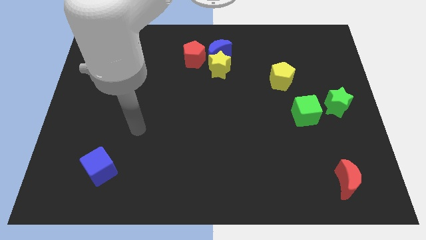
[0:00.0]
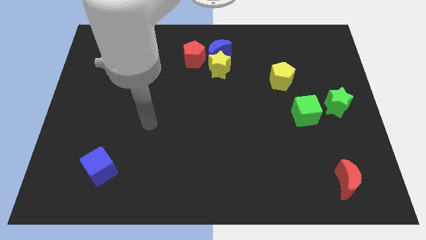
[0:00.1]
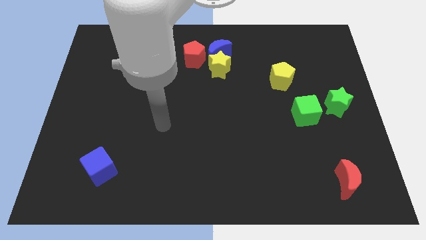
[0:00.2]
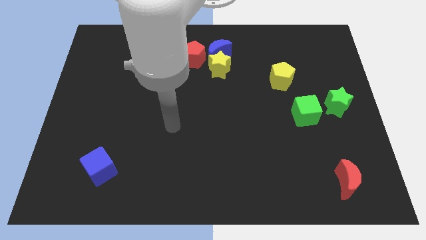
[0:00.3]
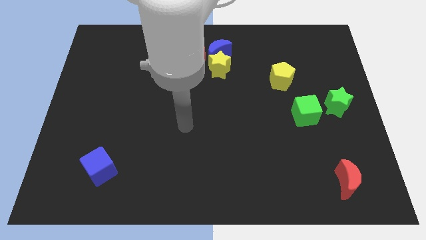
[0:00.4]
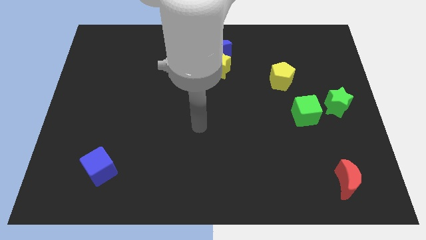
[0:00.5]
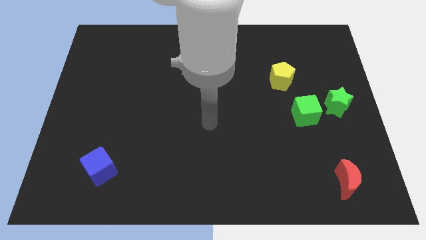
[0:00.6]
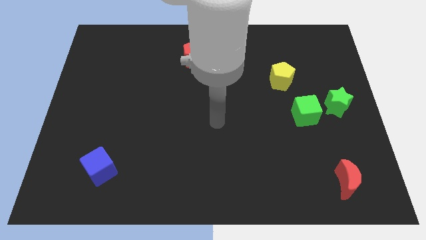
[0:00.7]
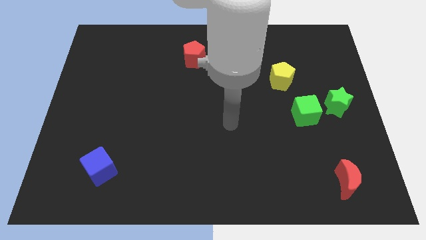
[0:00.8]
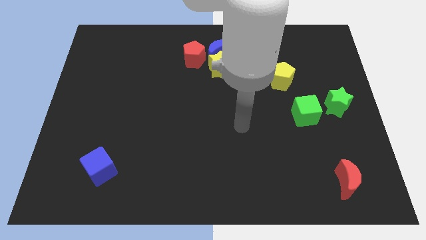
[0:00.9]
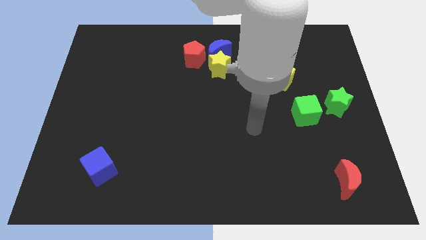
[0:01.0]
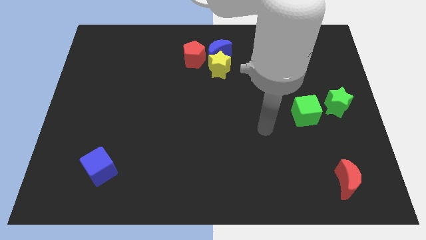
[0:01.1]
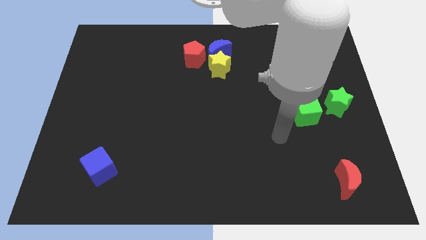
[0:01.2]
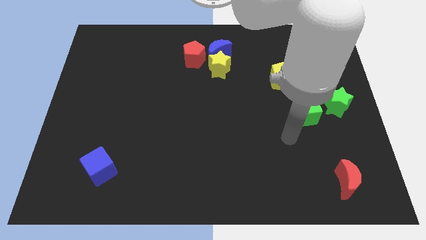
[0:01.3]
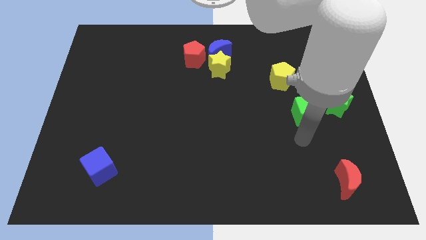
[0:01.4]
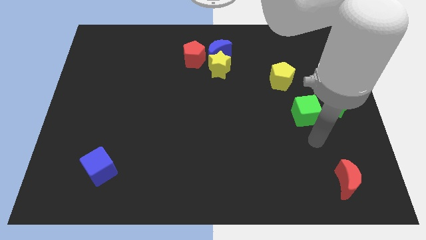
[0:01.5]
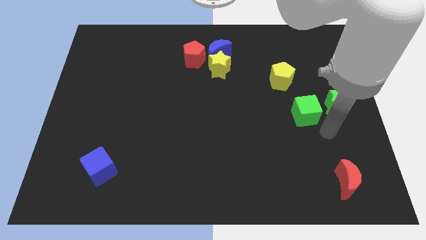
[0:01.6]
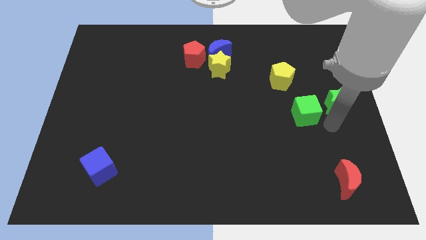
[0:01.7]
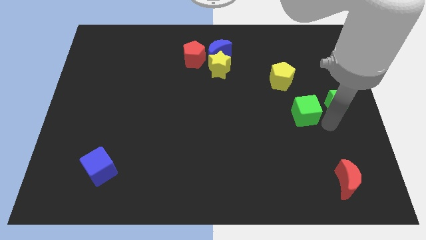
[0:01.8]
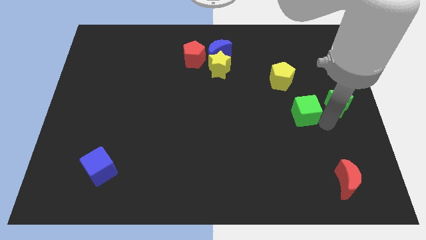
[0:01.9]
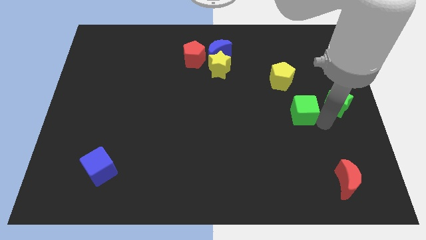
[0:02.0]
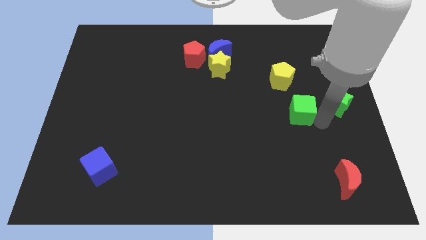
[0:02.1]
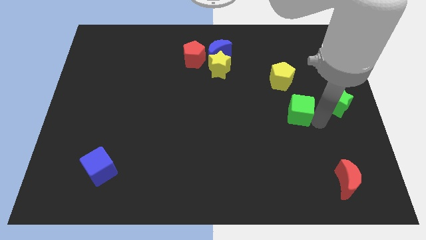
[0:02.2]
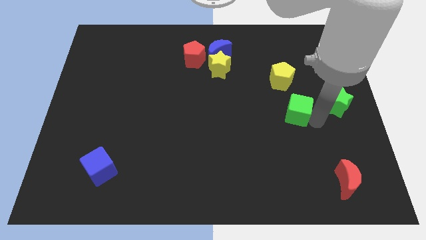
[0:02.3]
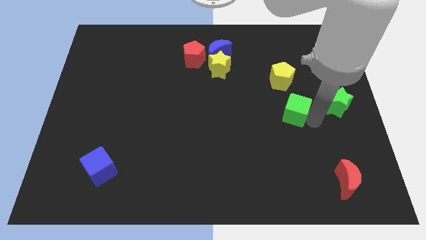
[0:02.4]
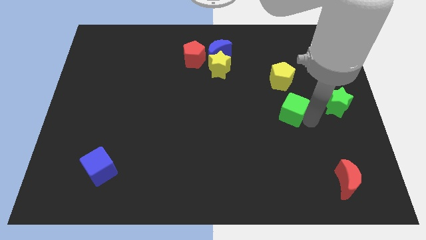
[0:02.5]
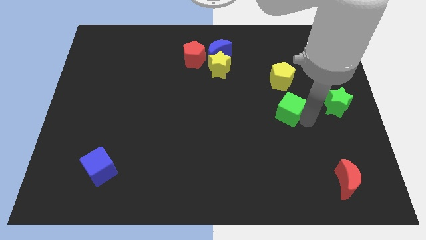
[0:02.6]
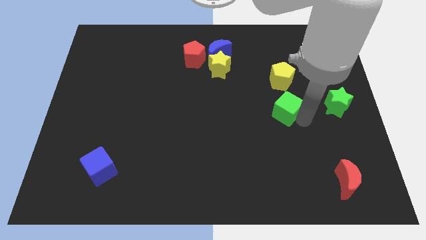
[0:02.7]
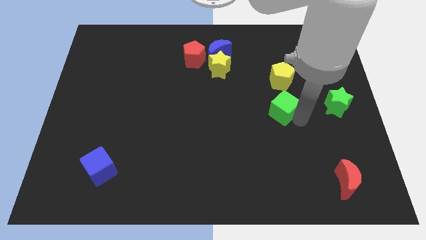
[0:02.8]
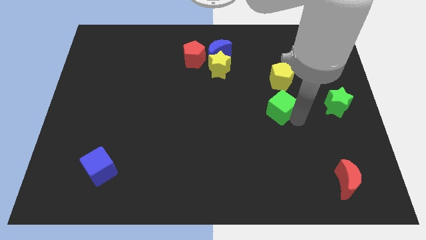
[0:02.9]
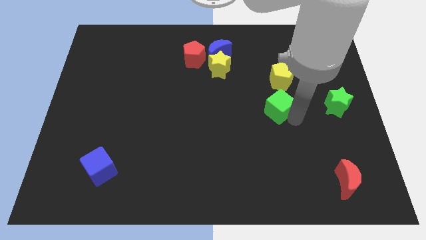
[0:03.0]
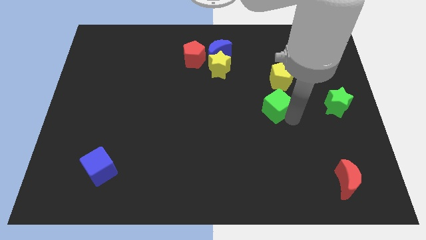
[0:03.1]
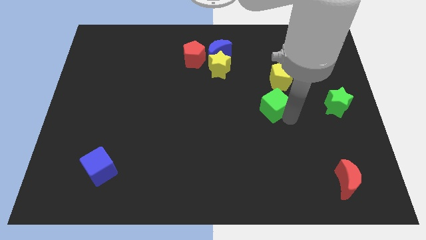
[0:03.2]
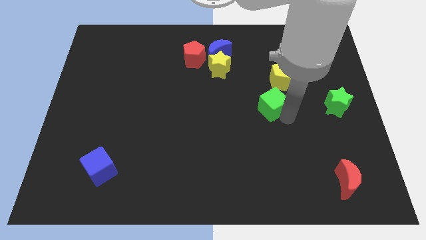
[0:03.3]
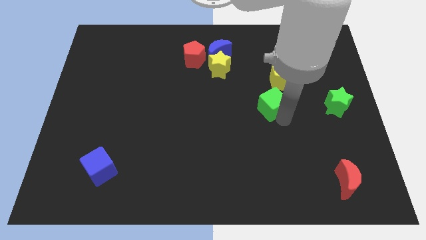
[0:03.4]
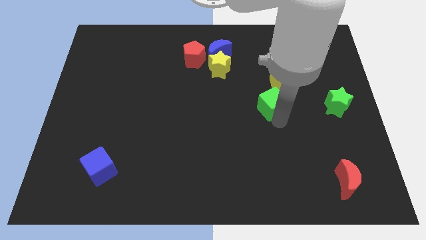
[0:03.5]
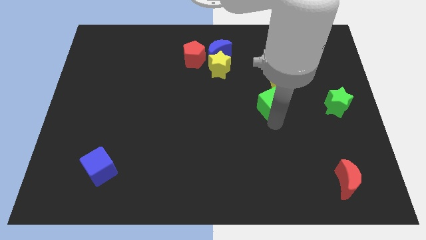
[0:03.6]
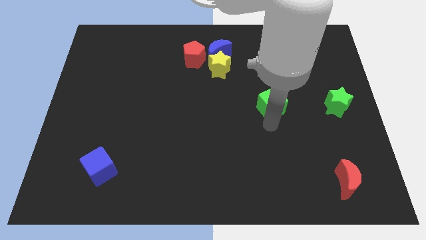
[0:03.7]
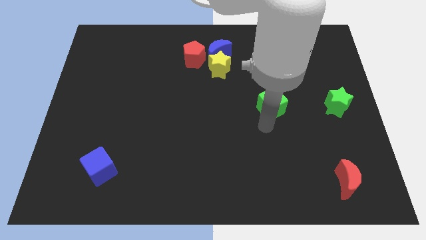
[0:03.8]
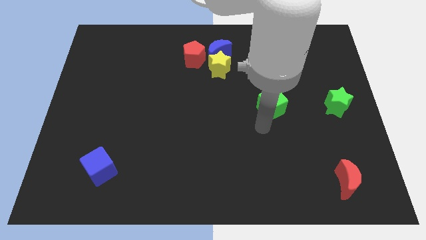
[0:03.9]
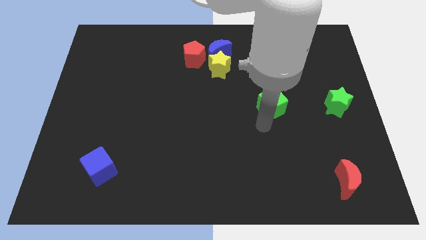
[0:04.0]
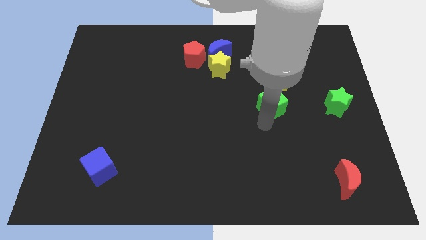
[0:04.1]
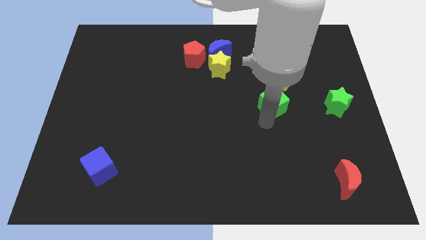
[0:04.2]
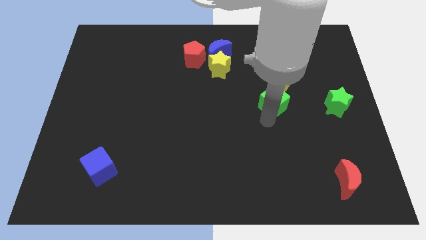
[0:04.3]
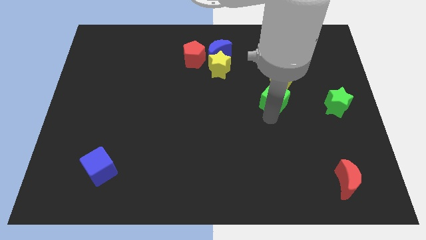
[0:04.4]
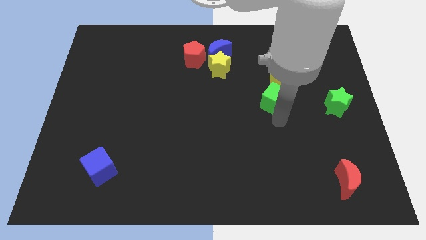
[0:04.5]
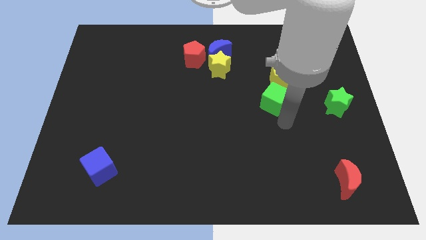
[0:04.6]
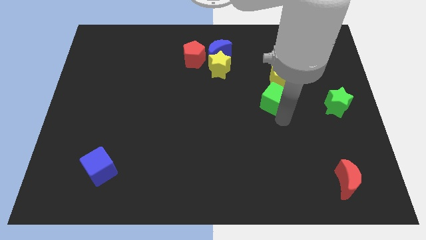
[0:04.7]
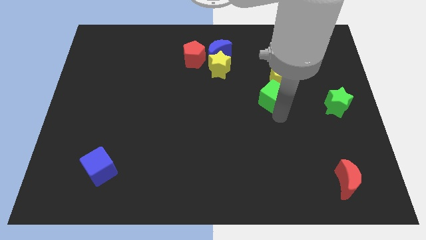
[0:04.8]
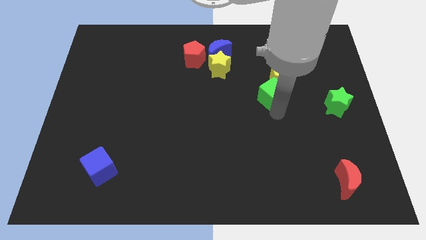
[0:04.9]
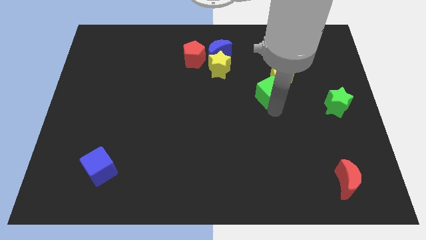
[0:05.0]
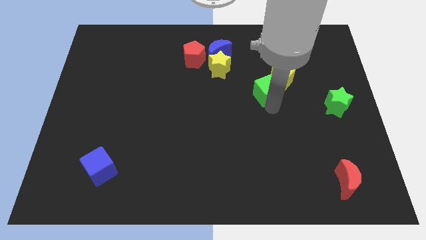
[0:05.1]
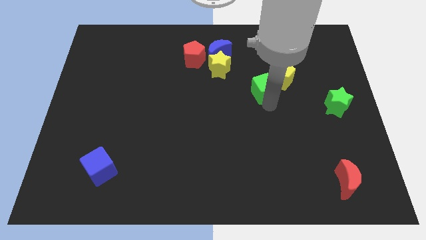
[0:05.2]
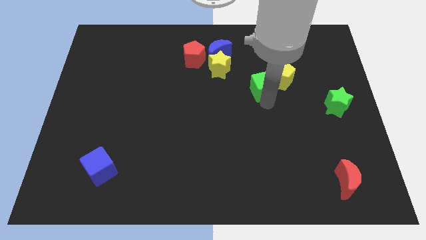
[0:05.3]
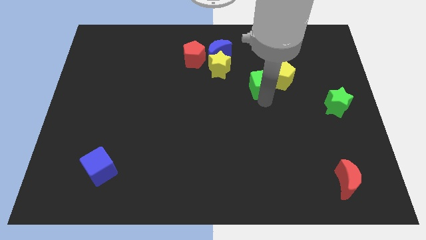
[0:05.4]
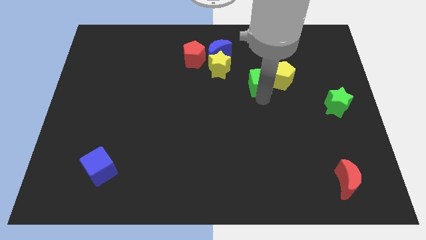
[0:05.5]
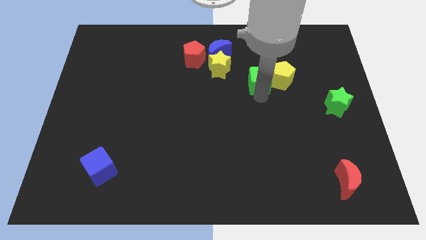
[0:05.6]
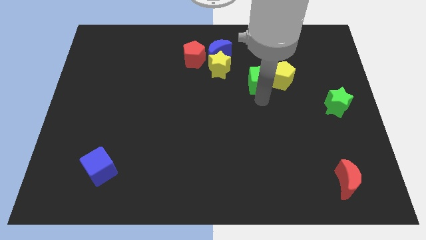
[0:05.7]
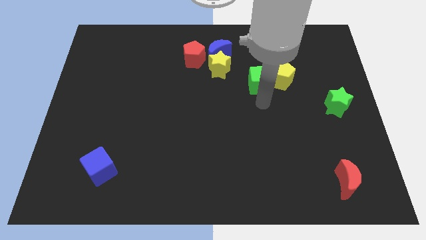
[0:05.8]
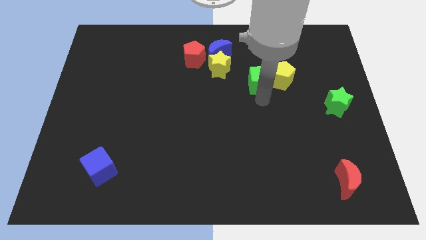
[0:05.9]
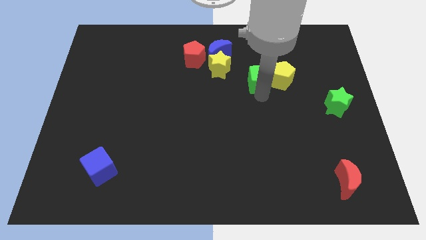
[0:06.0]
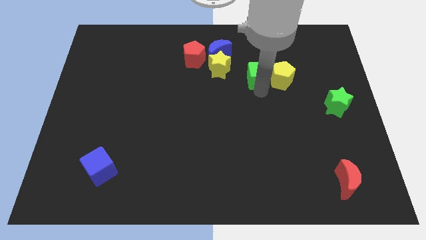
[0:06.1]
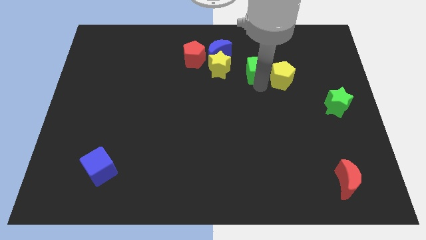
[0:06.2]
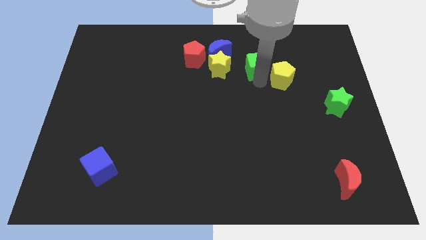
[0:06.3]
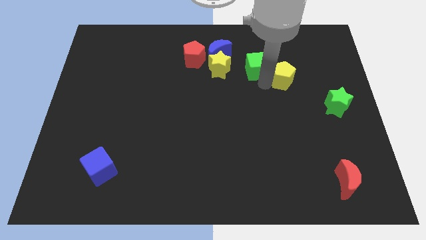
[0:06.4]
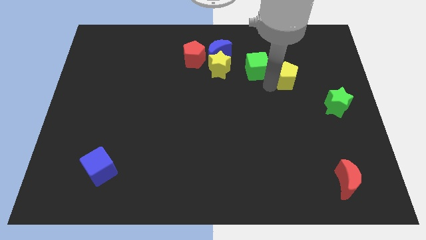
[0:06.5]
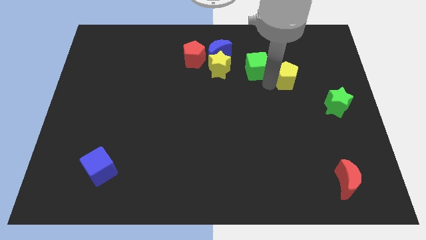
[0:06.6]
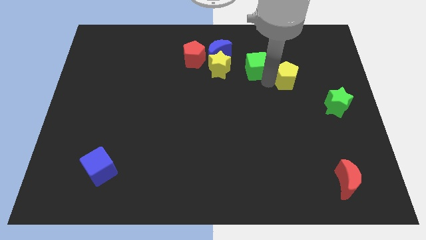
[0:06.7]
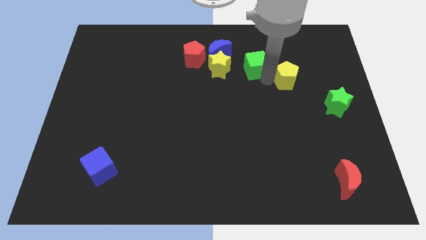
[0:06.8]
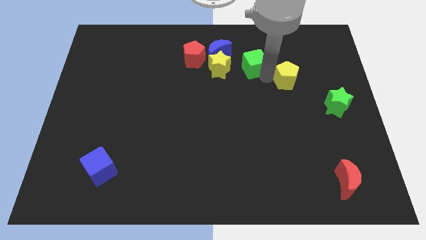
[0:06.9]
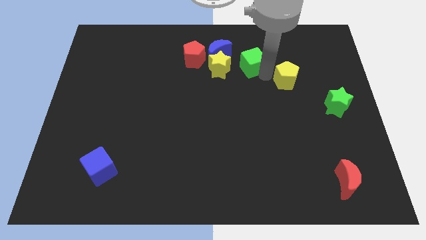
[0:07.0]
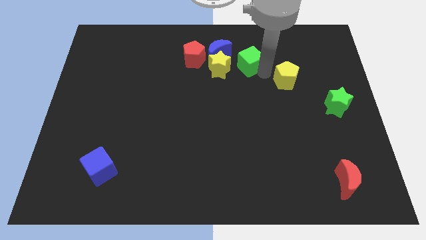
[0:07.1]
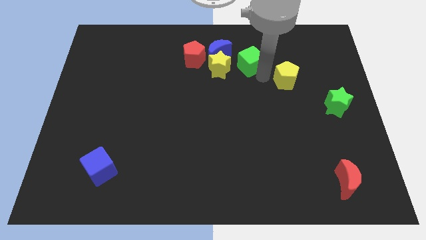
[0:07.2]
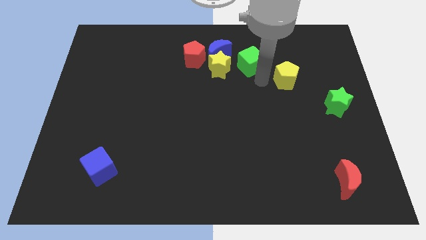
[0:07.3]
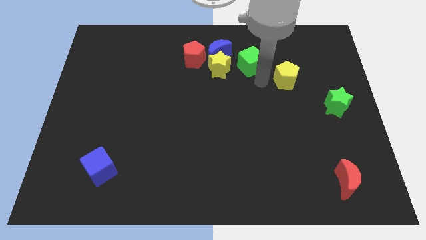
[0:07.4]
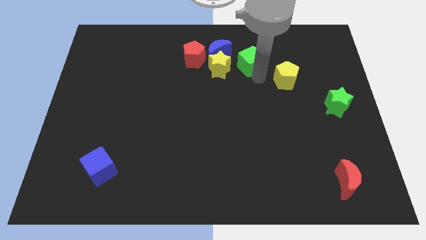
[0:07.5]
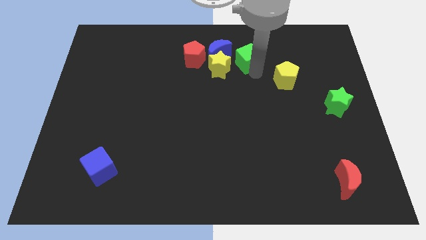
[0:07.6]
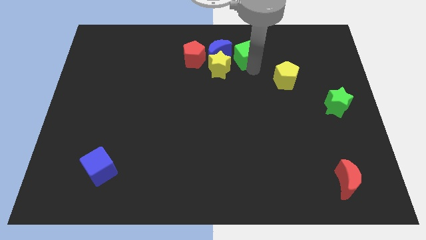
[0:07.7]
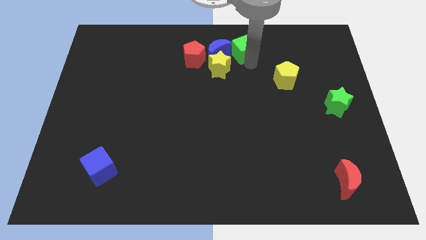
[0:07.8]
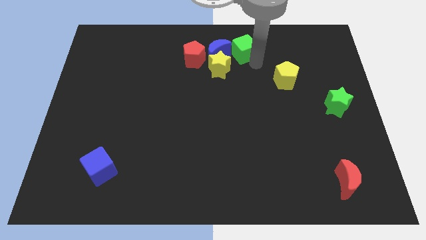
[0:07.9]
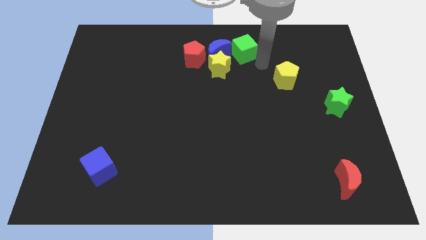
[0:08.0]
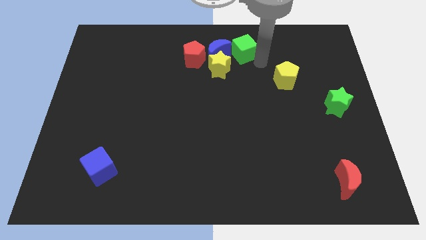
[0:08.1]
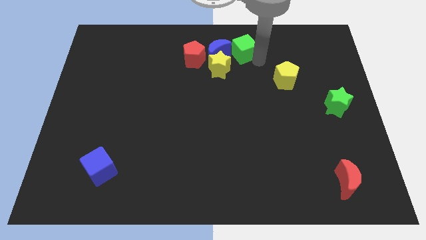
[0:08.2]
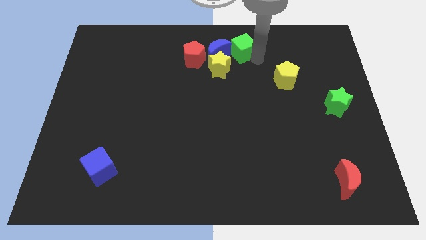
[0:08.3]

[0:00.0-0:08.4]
move the green cube to the top side
